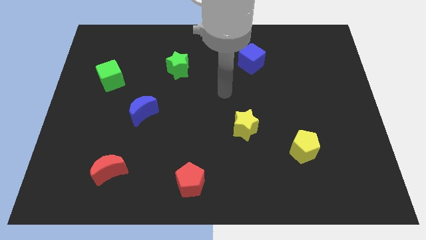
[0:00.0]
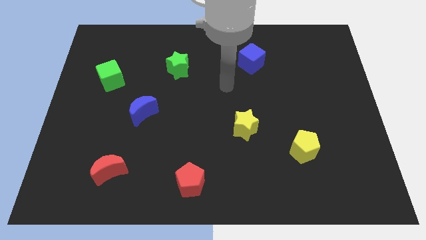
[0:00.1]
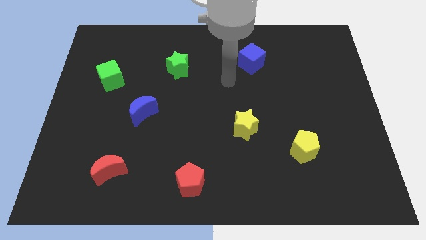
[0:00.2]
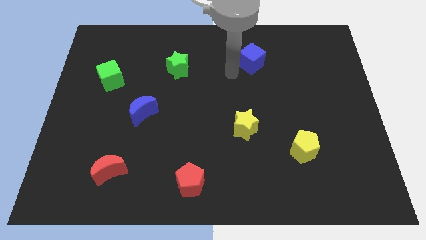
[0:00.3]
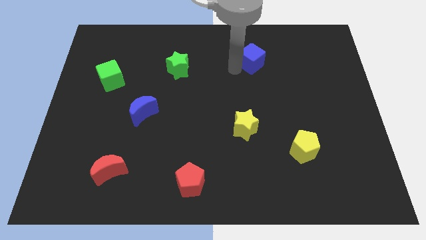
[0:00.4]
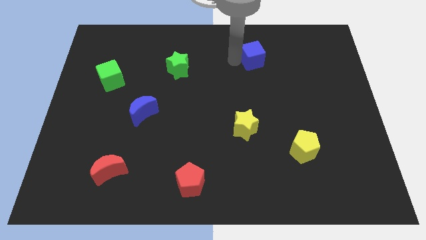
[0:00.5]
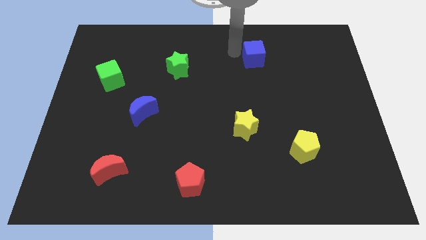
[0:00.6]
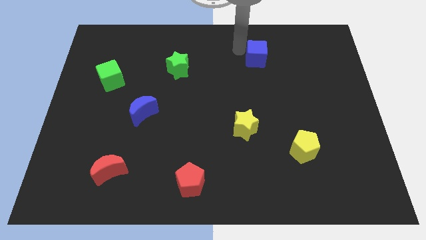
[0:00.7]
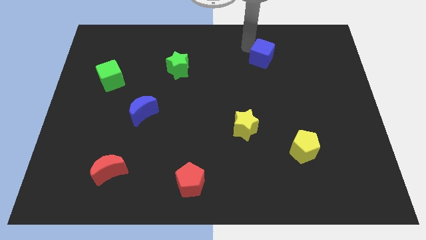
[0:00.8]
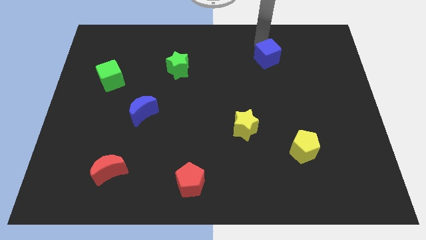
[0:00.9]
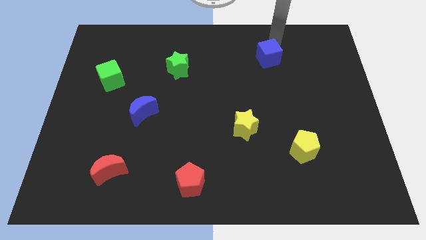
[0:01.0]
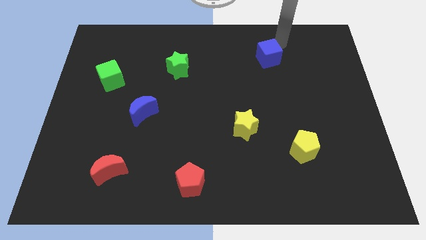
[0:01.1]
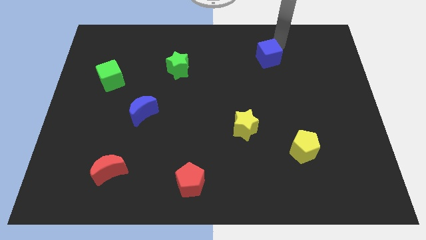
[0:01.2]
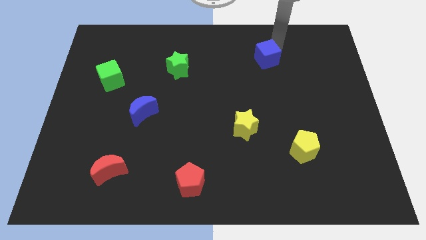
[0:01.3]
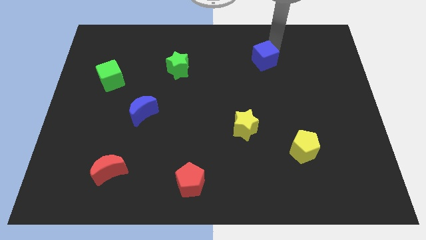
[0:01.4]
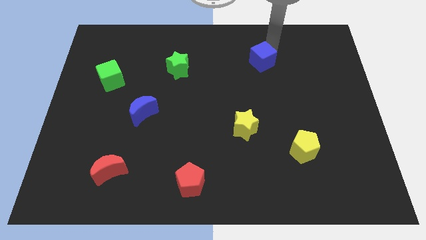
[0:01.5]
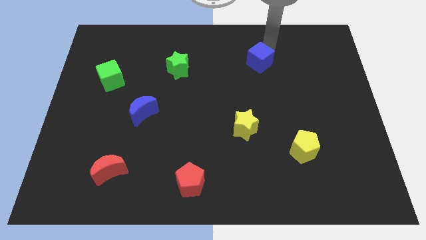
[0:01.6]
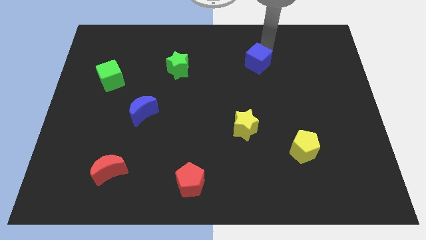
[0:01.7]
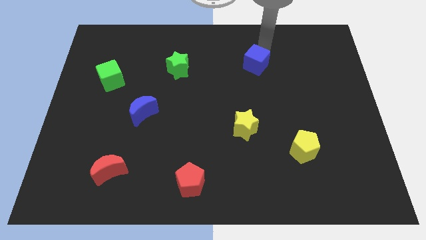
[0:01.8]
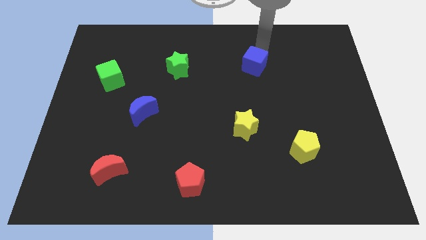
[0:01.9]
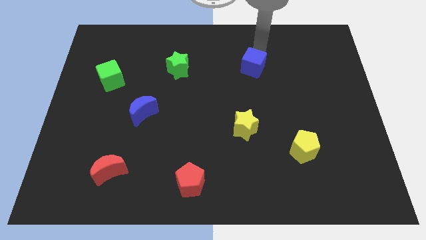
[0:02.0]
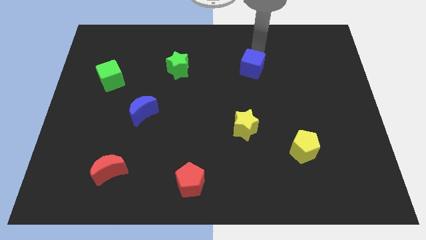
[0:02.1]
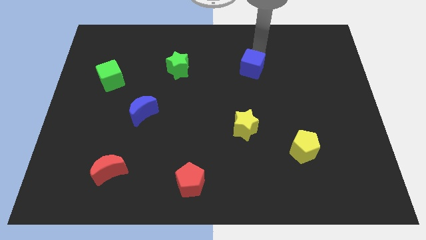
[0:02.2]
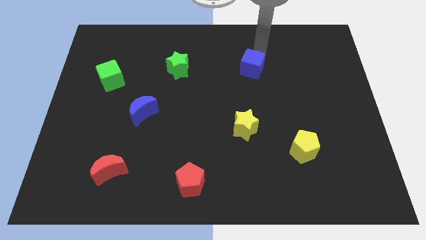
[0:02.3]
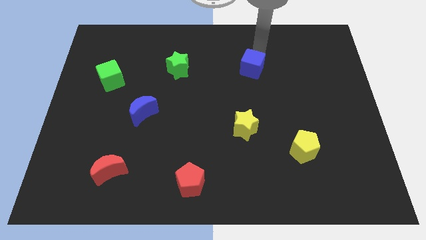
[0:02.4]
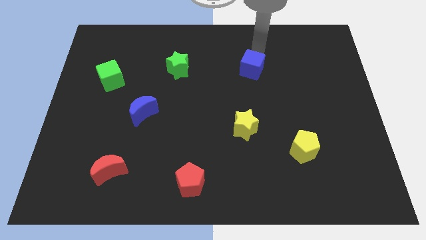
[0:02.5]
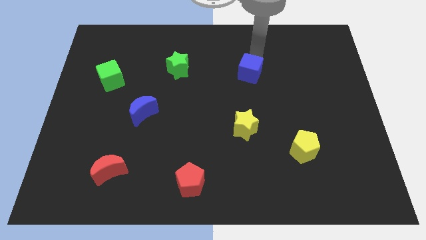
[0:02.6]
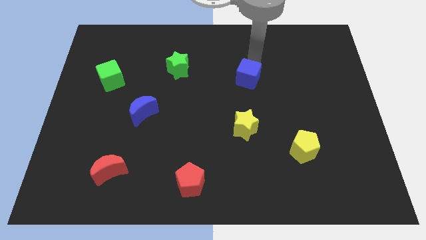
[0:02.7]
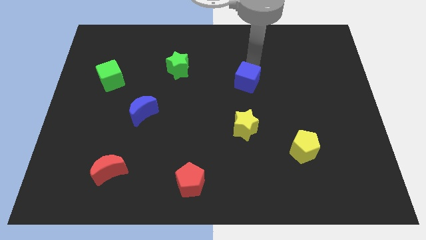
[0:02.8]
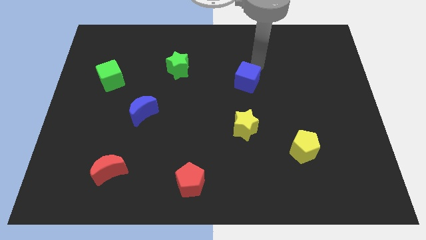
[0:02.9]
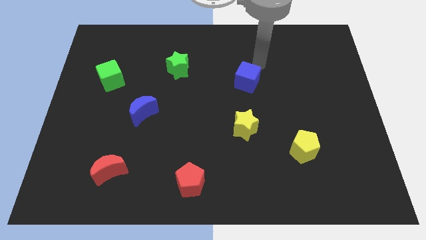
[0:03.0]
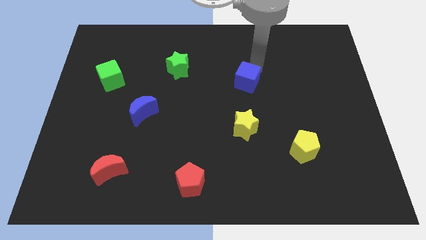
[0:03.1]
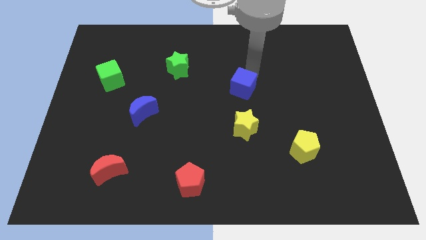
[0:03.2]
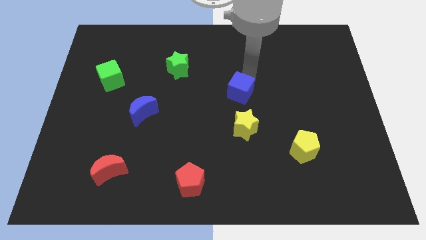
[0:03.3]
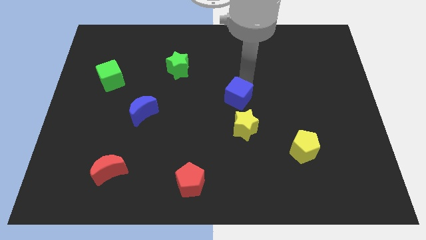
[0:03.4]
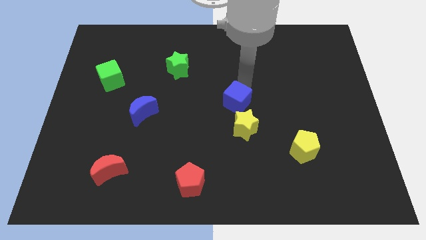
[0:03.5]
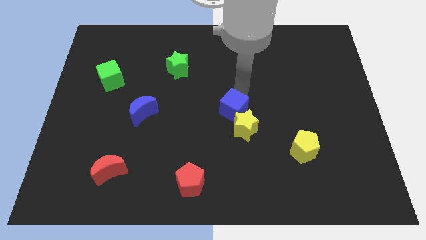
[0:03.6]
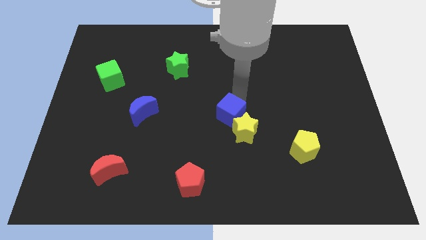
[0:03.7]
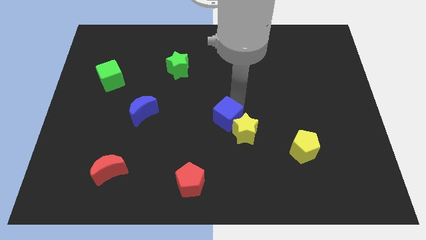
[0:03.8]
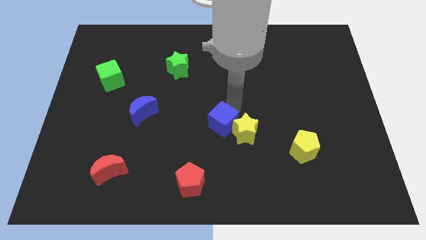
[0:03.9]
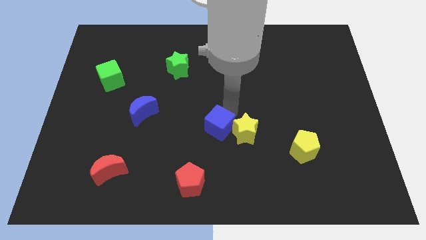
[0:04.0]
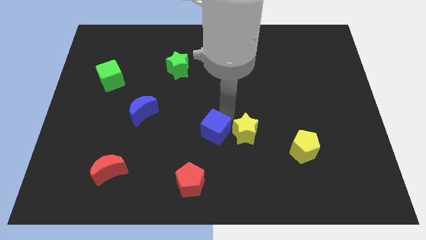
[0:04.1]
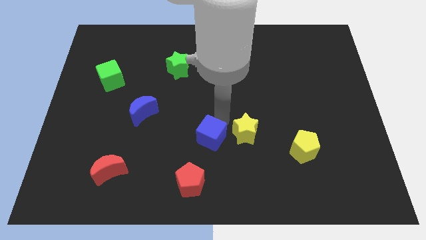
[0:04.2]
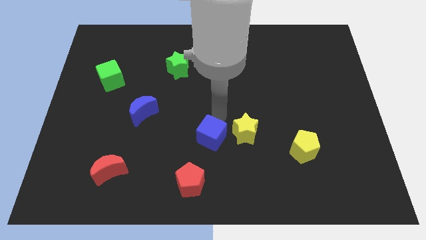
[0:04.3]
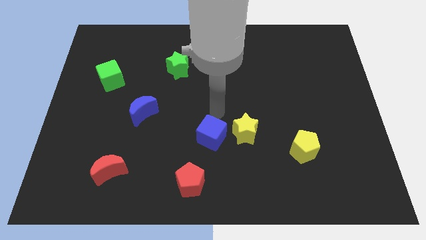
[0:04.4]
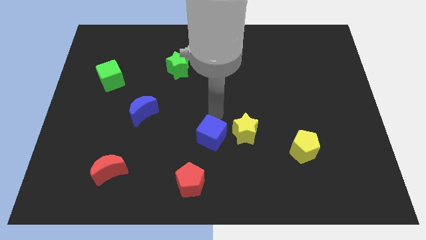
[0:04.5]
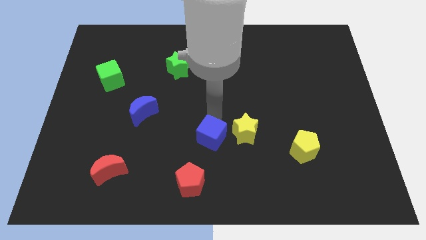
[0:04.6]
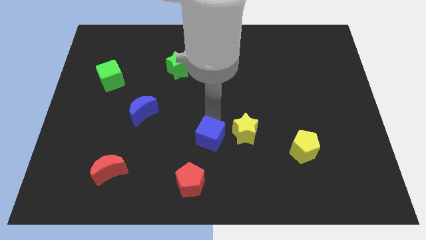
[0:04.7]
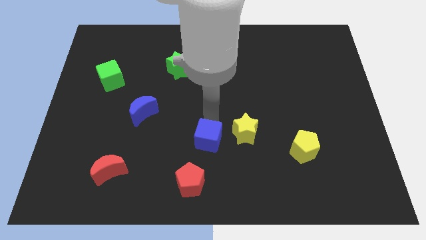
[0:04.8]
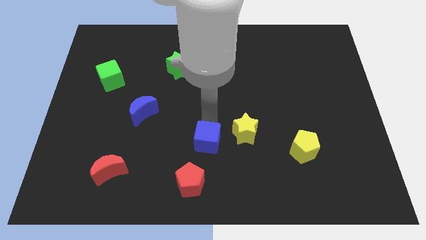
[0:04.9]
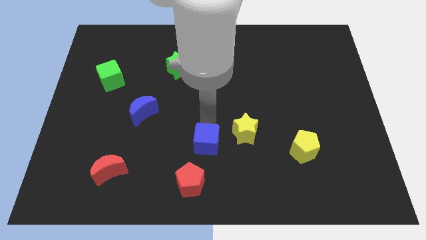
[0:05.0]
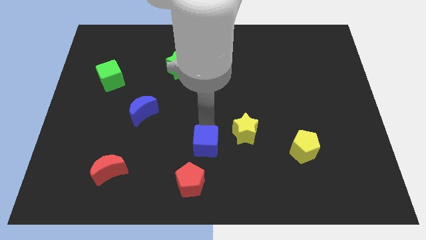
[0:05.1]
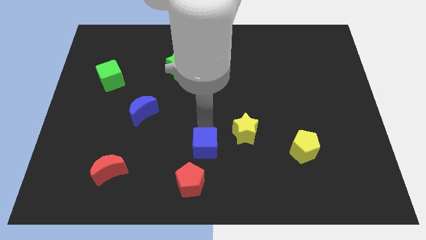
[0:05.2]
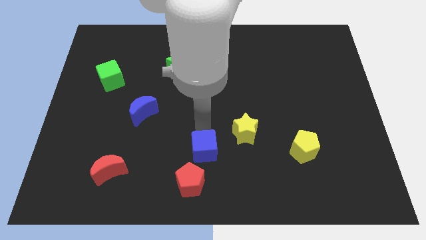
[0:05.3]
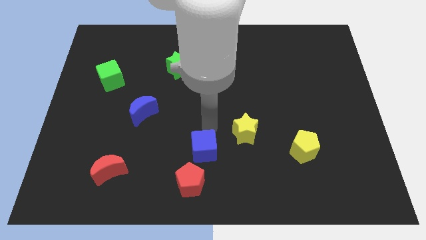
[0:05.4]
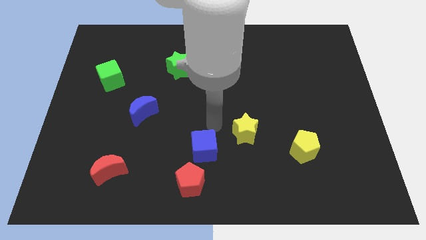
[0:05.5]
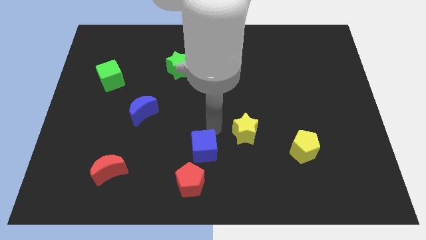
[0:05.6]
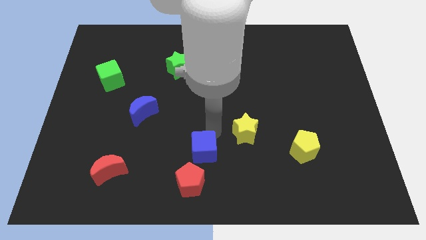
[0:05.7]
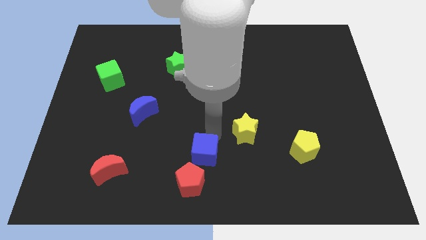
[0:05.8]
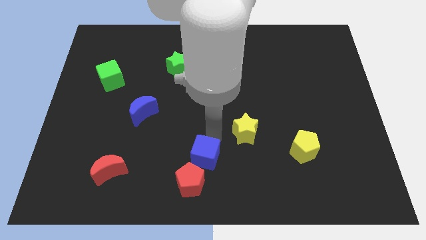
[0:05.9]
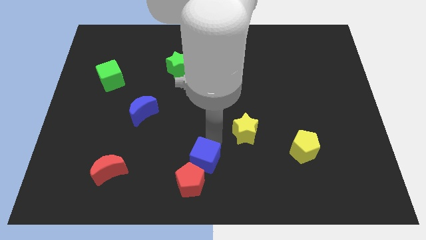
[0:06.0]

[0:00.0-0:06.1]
push the blue cube next to the red pentagon

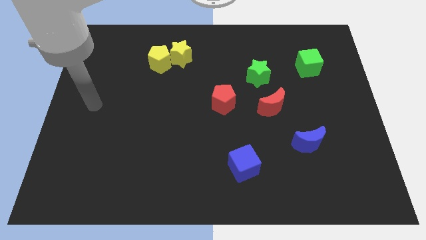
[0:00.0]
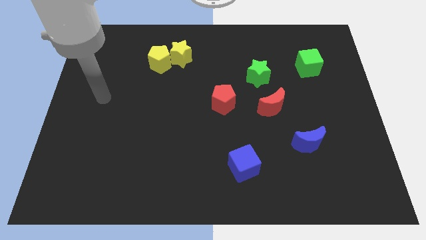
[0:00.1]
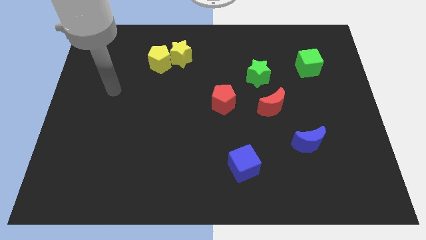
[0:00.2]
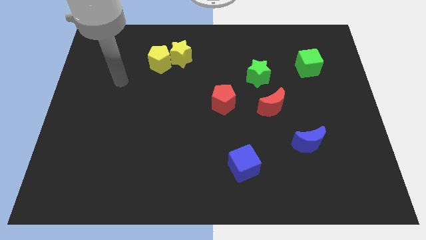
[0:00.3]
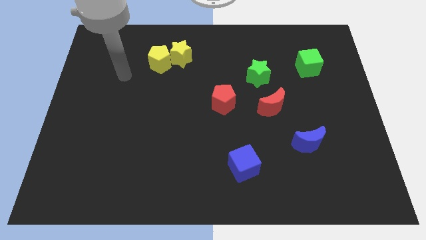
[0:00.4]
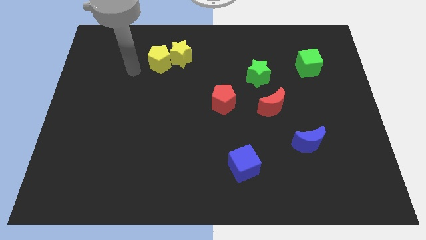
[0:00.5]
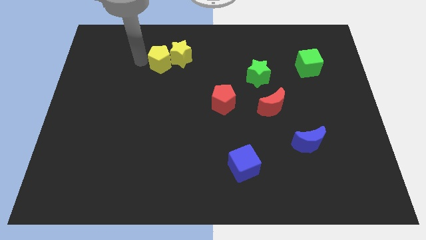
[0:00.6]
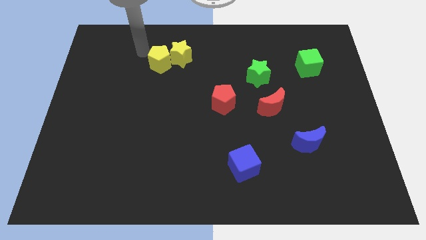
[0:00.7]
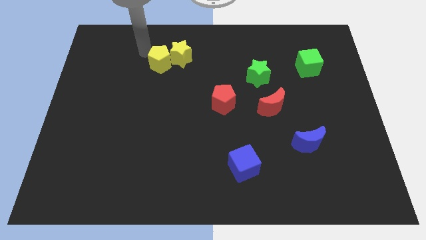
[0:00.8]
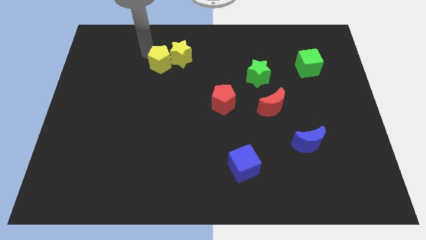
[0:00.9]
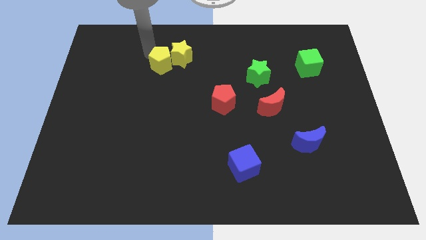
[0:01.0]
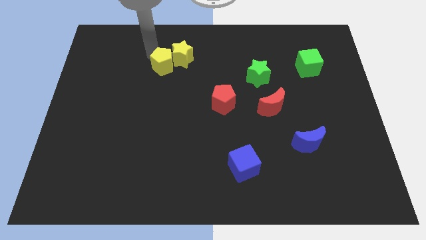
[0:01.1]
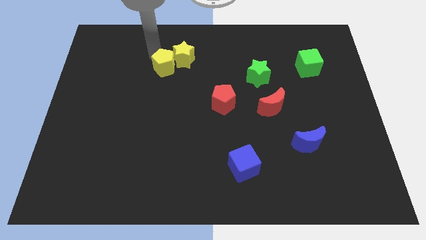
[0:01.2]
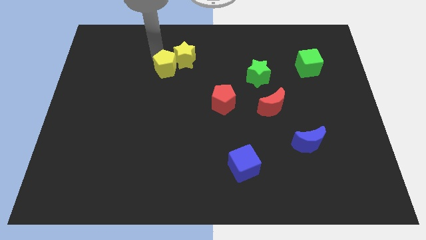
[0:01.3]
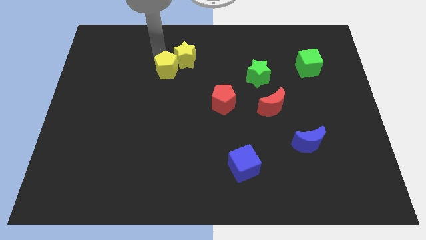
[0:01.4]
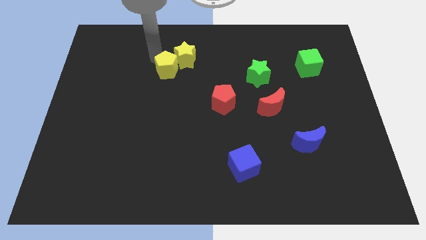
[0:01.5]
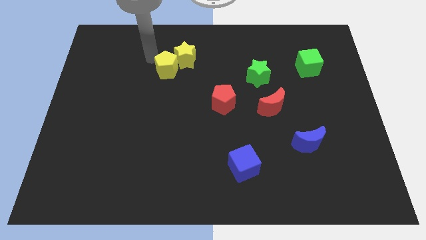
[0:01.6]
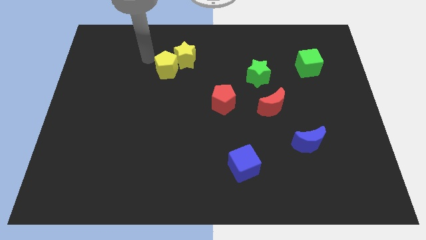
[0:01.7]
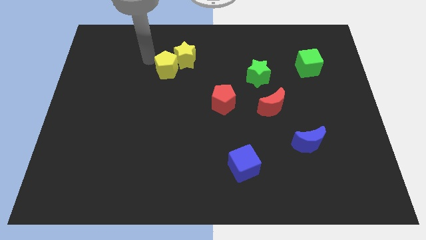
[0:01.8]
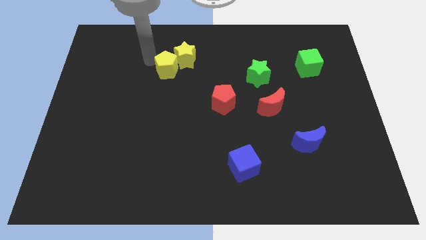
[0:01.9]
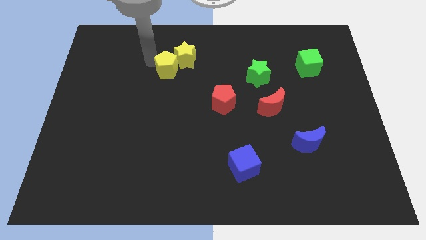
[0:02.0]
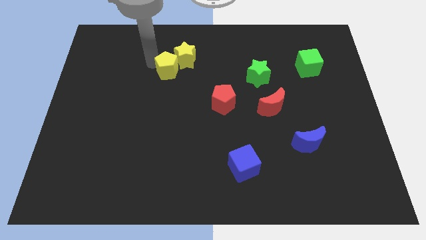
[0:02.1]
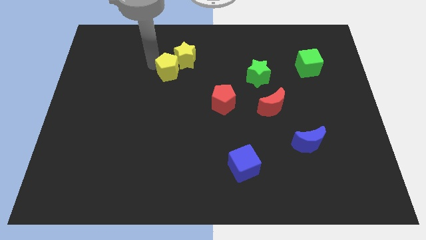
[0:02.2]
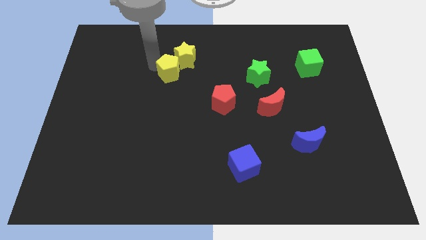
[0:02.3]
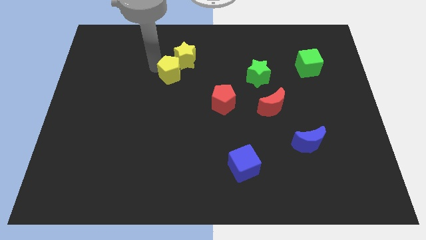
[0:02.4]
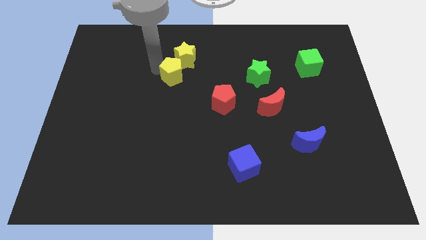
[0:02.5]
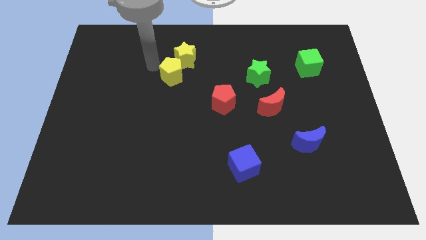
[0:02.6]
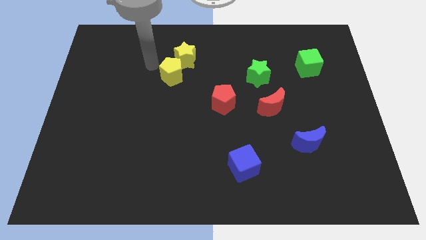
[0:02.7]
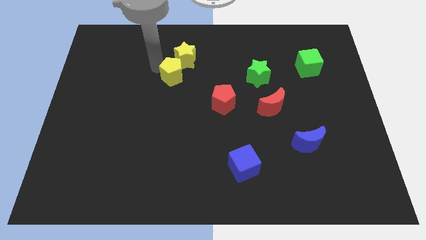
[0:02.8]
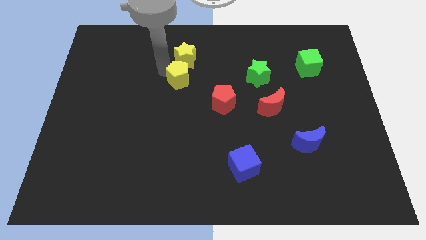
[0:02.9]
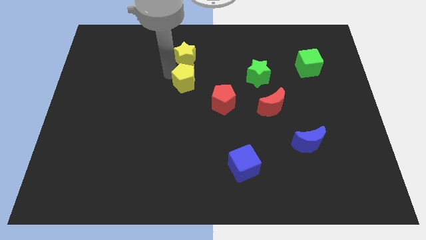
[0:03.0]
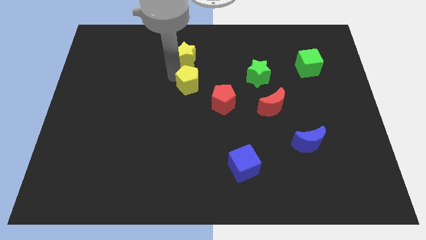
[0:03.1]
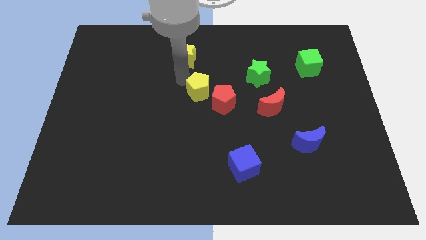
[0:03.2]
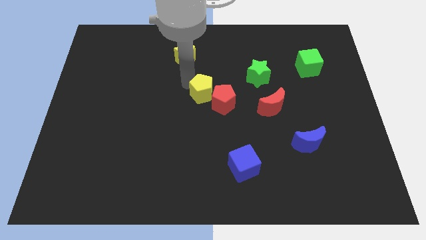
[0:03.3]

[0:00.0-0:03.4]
slide the yellow pentagon next to the red pentagon
